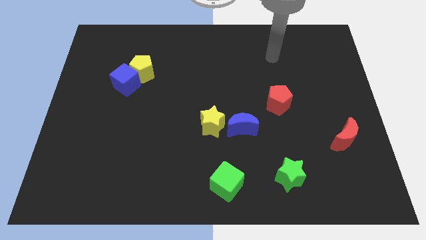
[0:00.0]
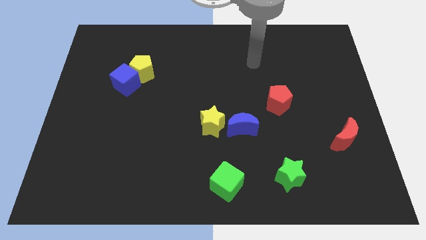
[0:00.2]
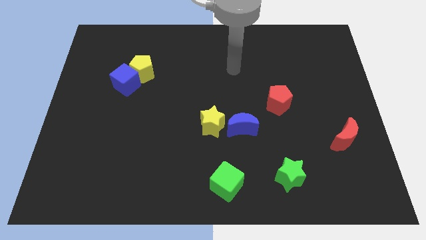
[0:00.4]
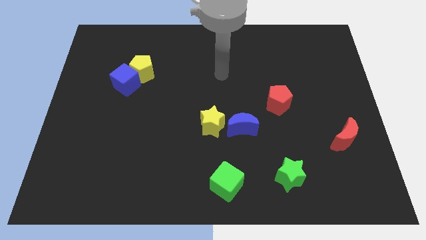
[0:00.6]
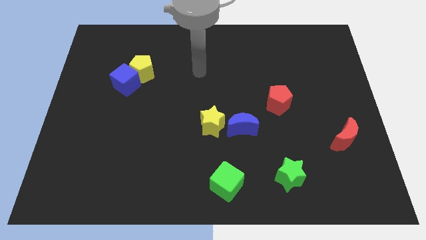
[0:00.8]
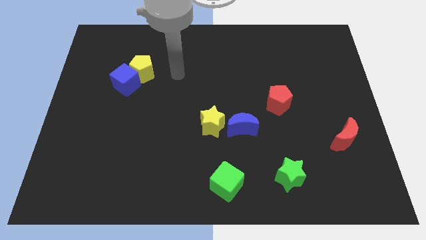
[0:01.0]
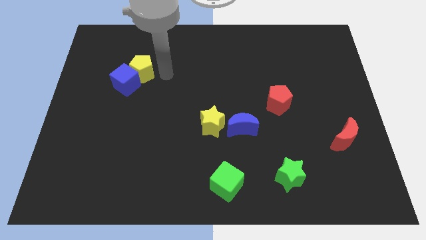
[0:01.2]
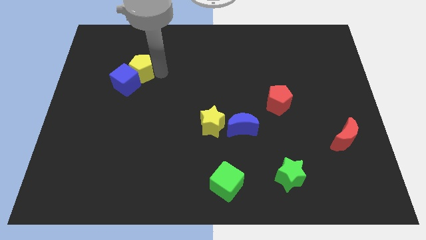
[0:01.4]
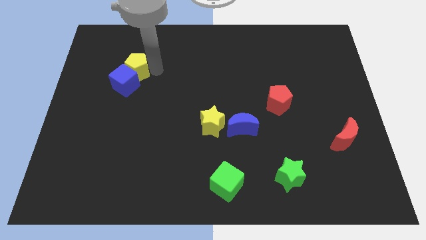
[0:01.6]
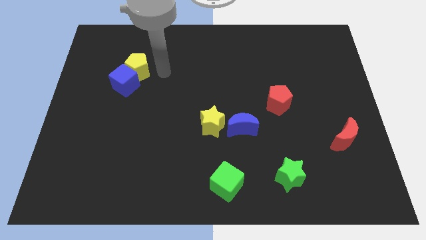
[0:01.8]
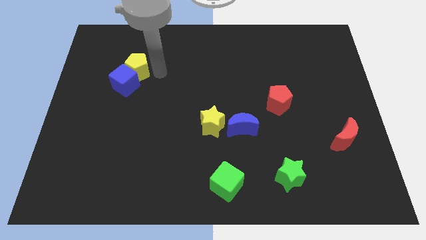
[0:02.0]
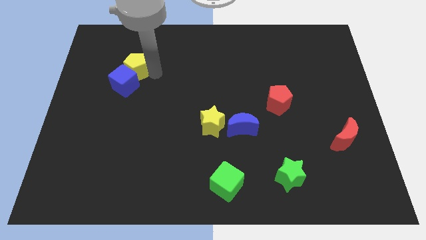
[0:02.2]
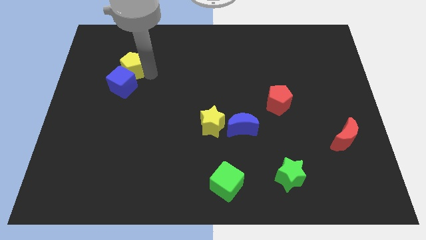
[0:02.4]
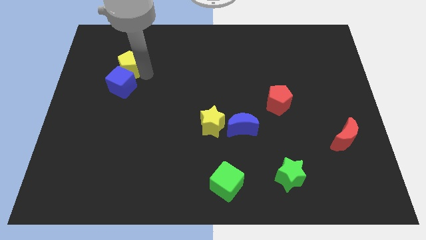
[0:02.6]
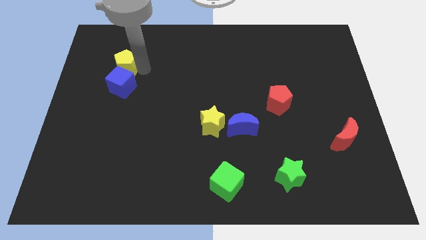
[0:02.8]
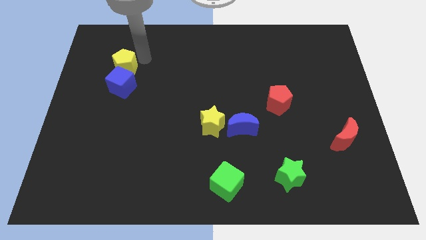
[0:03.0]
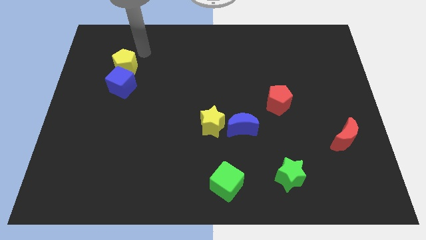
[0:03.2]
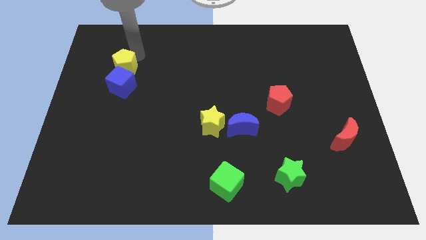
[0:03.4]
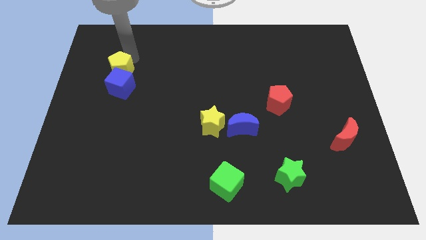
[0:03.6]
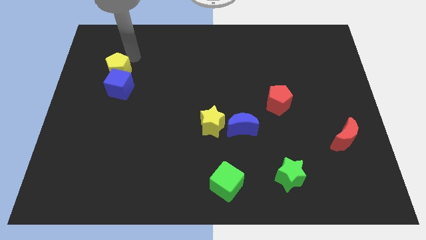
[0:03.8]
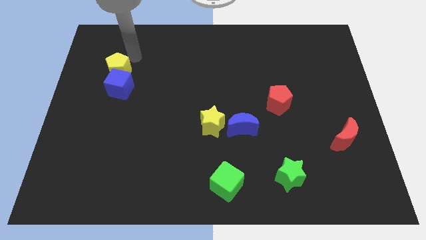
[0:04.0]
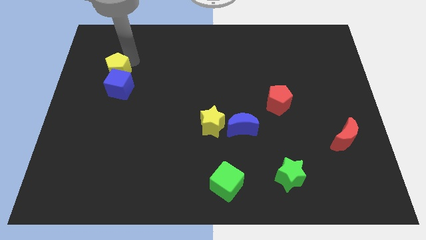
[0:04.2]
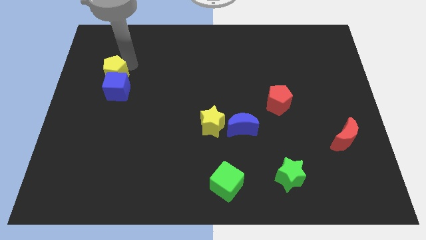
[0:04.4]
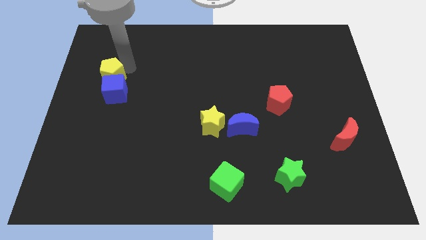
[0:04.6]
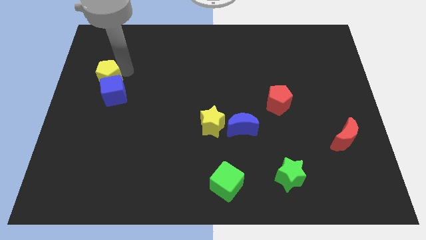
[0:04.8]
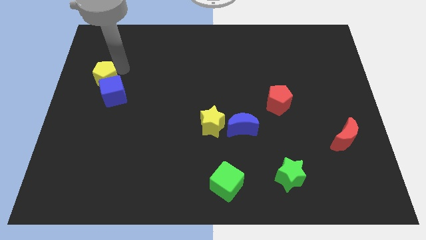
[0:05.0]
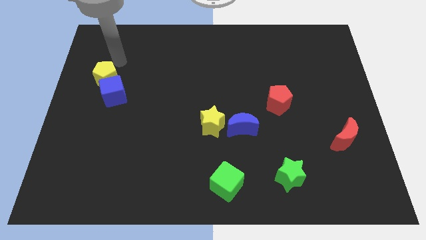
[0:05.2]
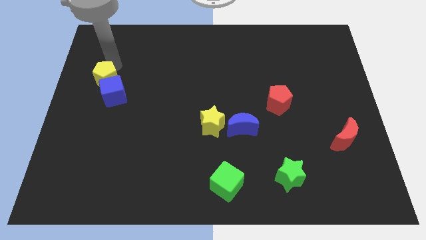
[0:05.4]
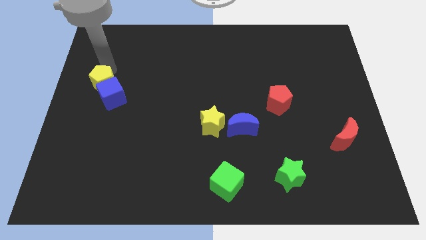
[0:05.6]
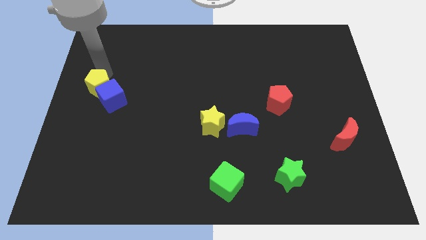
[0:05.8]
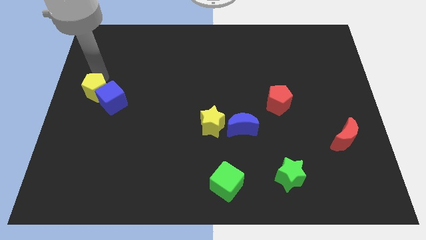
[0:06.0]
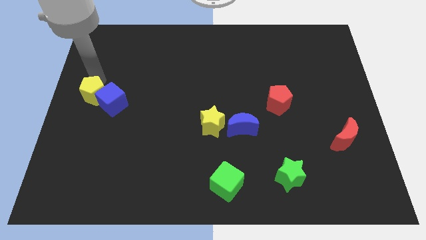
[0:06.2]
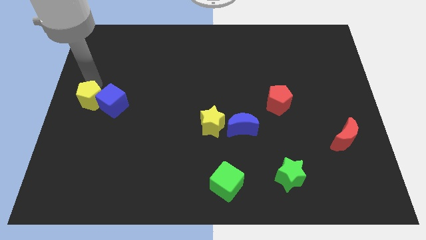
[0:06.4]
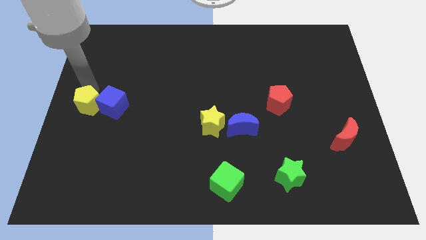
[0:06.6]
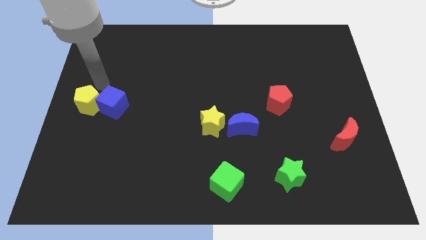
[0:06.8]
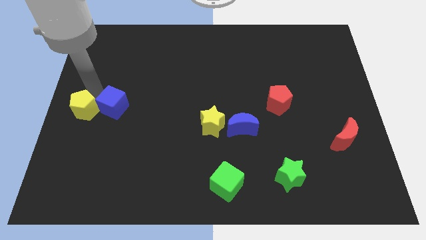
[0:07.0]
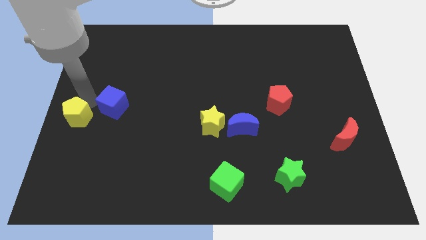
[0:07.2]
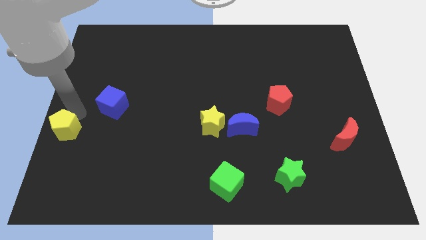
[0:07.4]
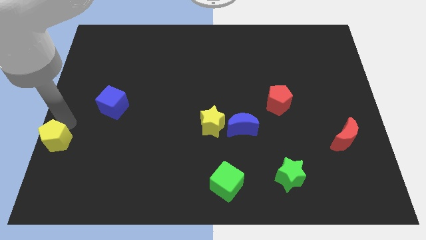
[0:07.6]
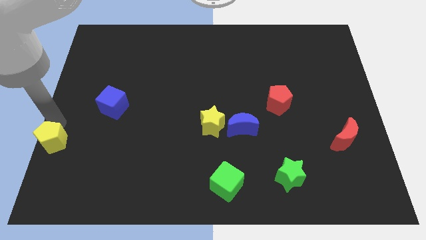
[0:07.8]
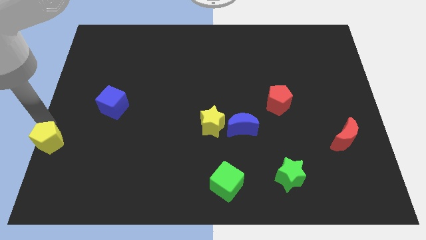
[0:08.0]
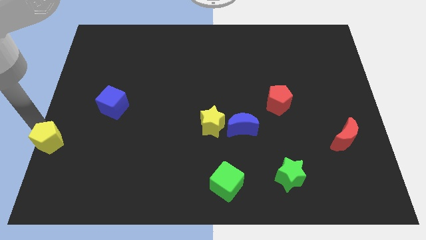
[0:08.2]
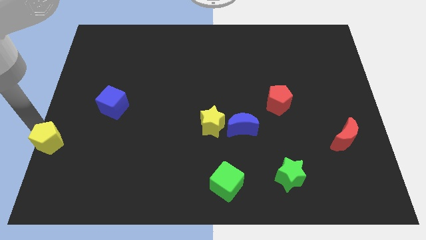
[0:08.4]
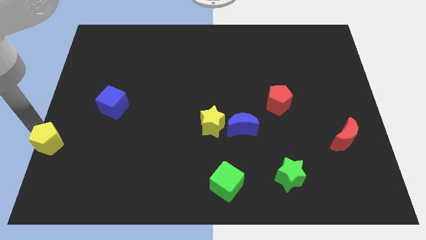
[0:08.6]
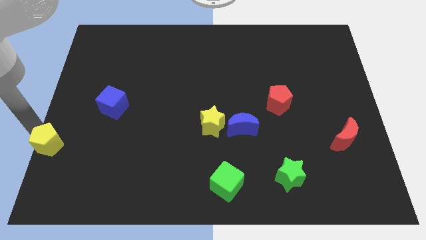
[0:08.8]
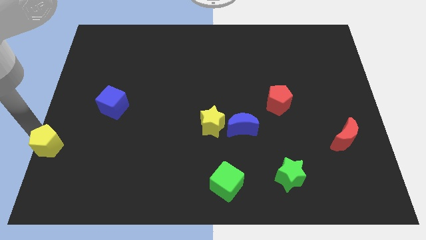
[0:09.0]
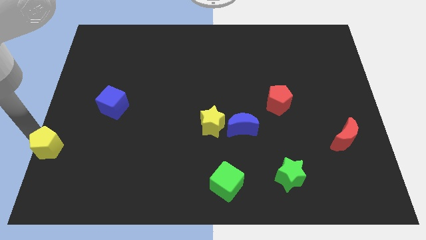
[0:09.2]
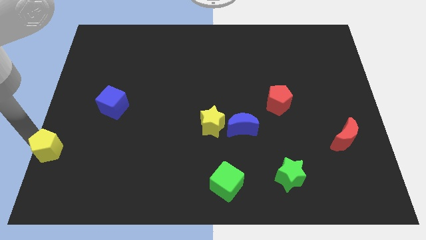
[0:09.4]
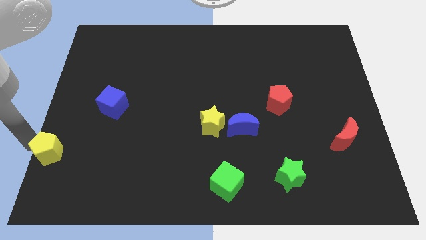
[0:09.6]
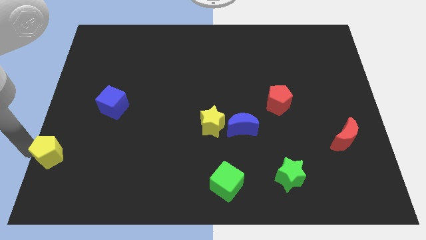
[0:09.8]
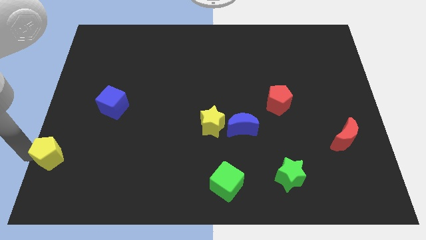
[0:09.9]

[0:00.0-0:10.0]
move the yellow pentagon to the bottom left of the board

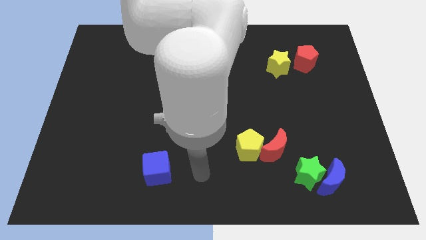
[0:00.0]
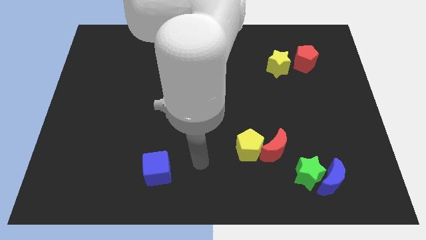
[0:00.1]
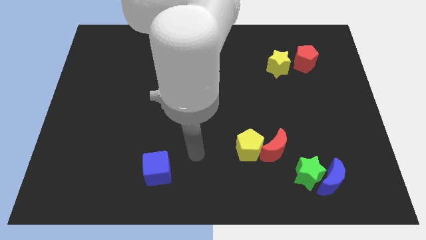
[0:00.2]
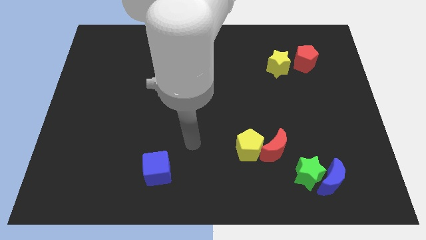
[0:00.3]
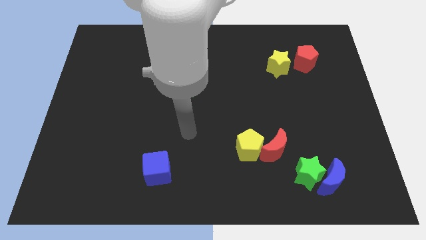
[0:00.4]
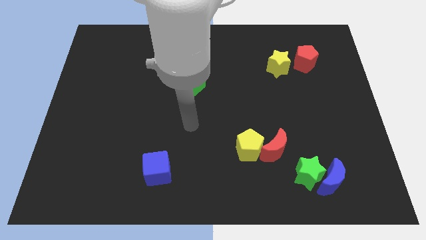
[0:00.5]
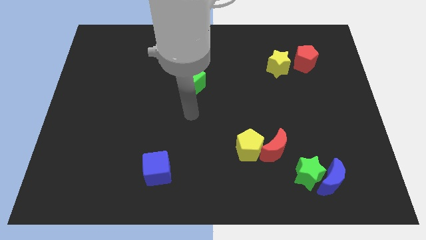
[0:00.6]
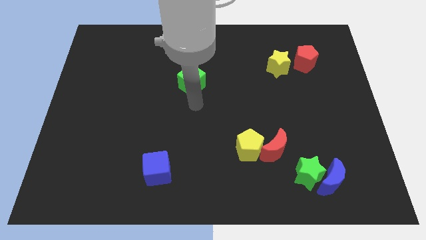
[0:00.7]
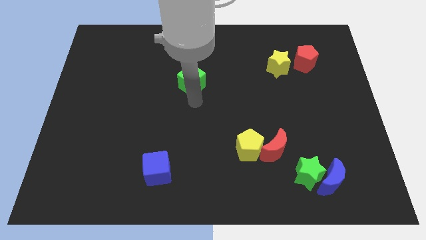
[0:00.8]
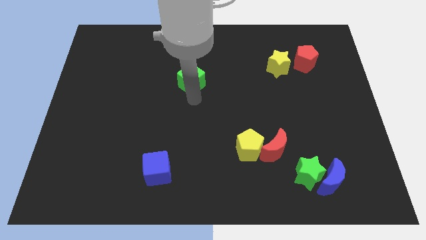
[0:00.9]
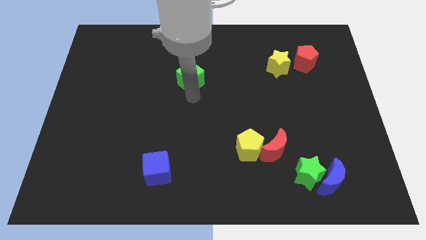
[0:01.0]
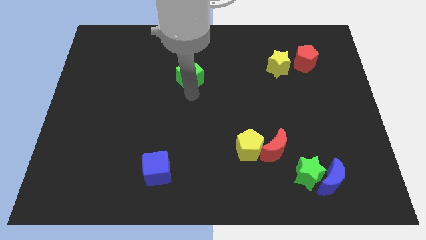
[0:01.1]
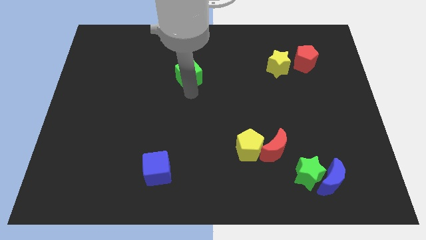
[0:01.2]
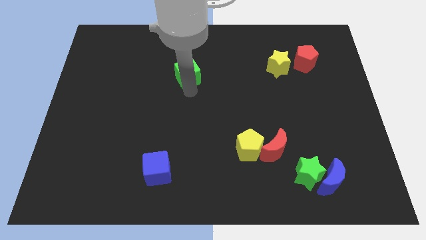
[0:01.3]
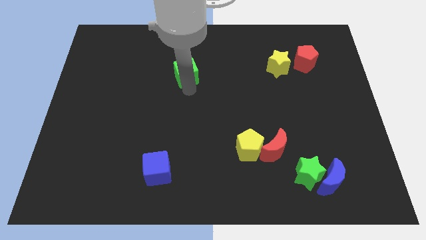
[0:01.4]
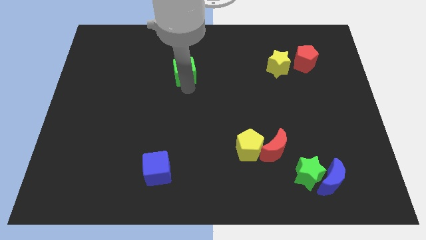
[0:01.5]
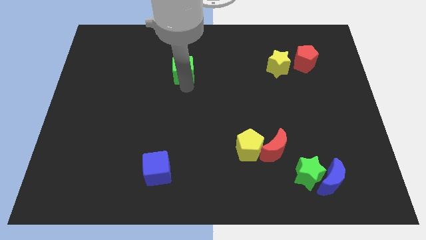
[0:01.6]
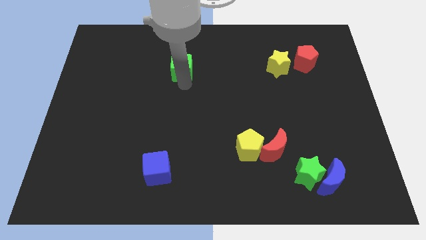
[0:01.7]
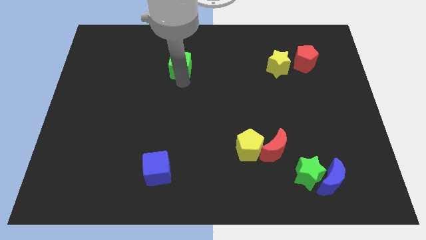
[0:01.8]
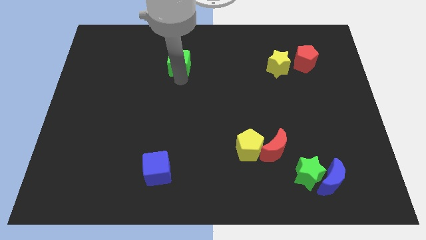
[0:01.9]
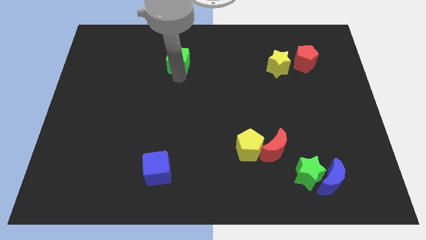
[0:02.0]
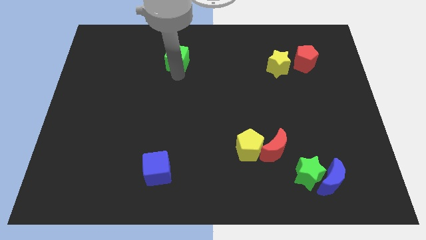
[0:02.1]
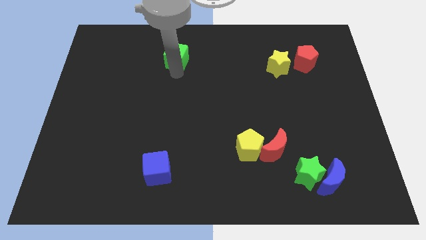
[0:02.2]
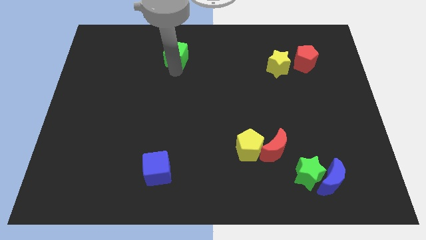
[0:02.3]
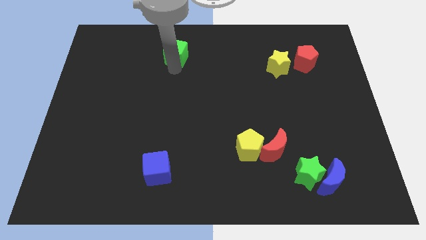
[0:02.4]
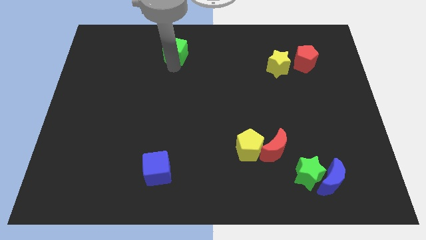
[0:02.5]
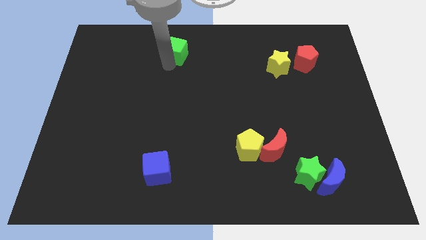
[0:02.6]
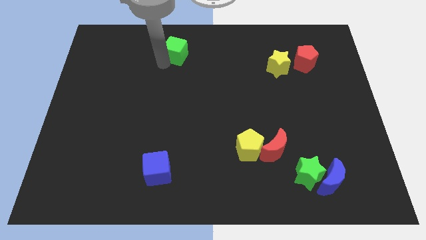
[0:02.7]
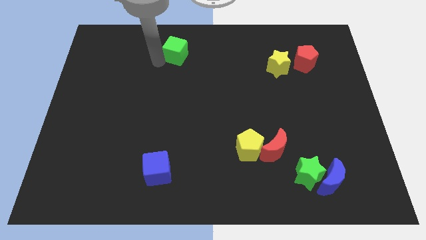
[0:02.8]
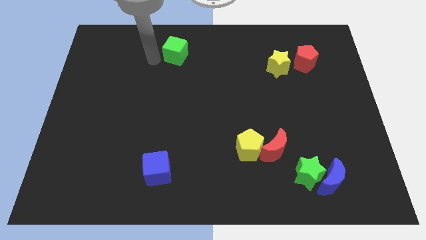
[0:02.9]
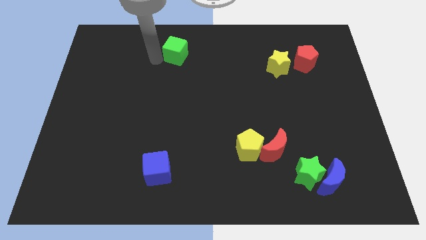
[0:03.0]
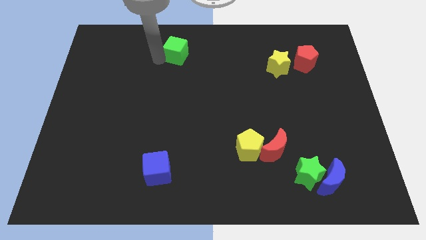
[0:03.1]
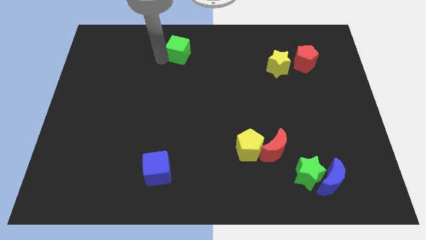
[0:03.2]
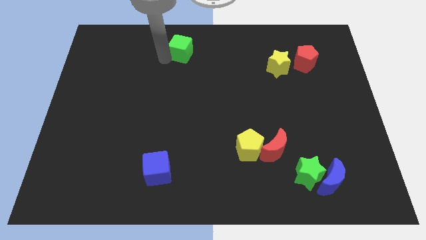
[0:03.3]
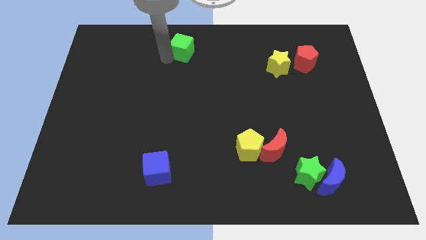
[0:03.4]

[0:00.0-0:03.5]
put the green cube to the top side
